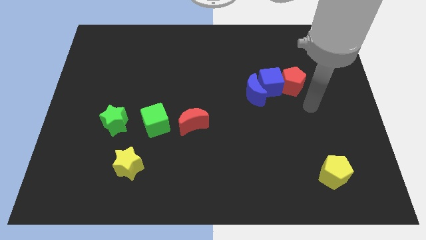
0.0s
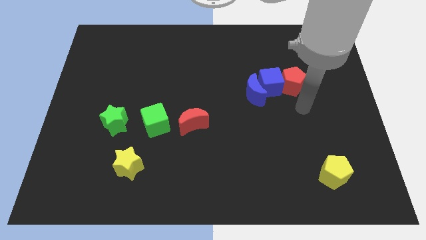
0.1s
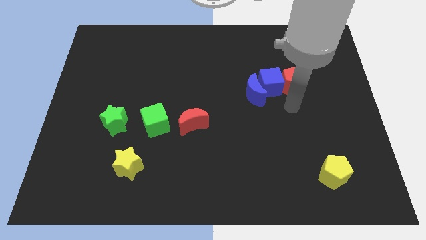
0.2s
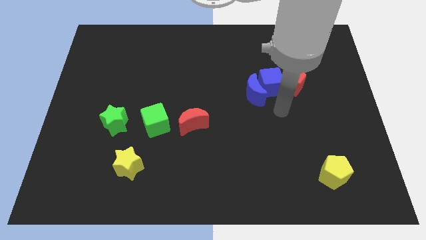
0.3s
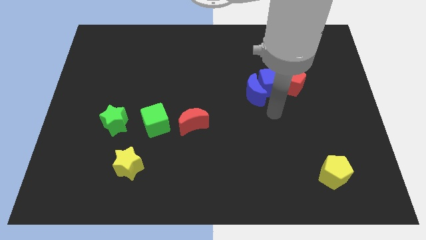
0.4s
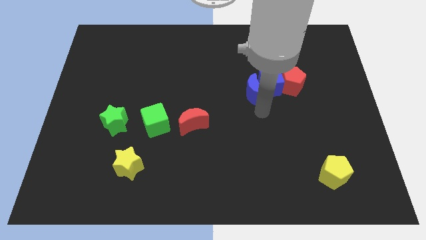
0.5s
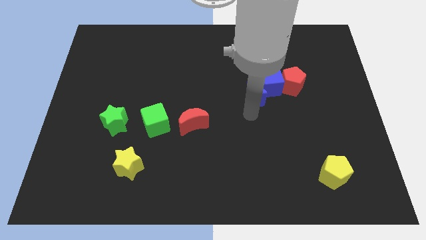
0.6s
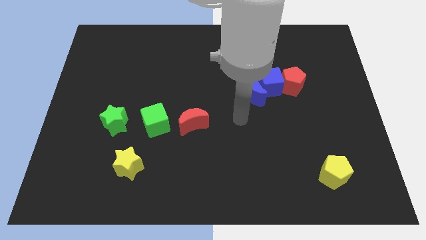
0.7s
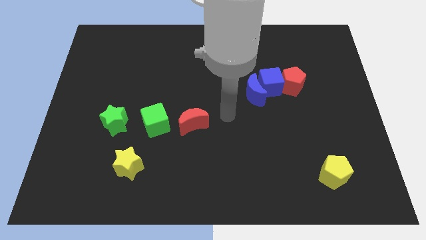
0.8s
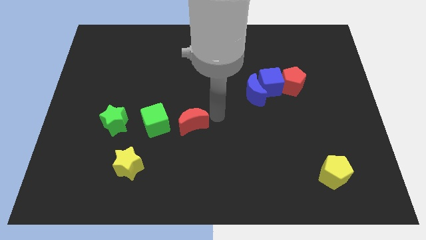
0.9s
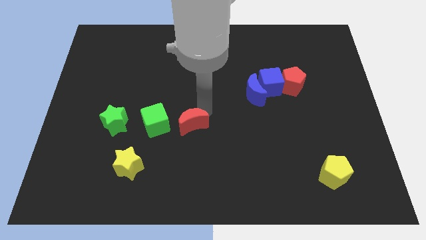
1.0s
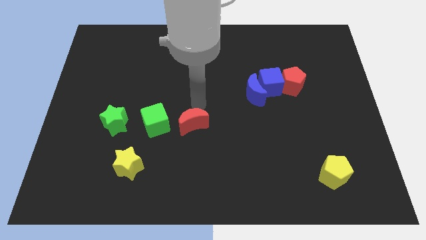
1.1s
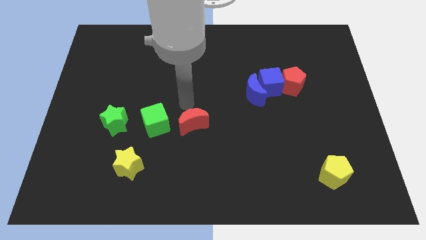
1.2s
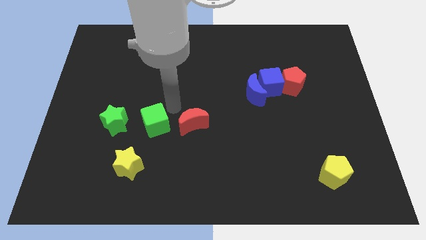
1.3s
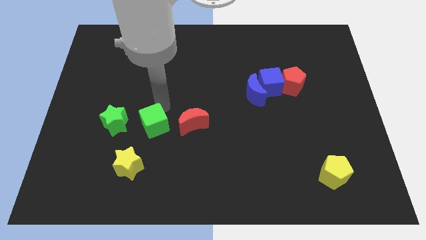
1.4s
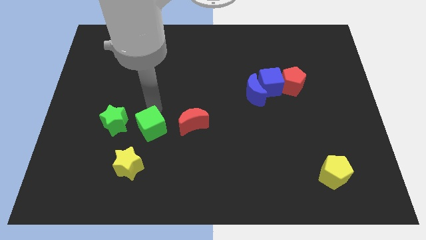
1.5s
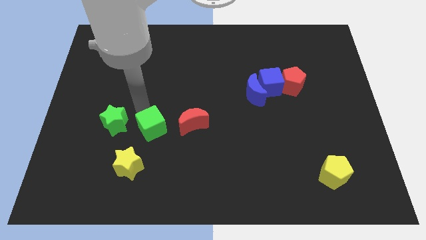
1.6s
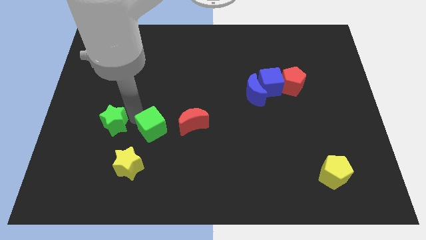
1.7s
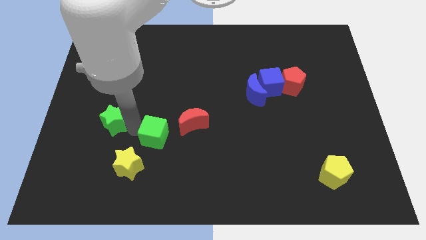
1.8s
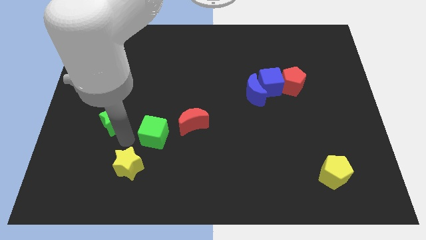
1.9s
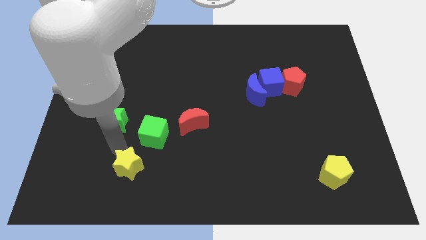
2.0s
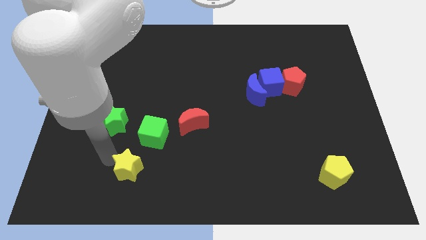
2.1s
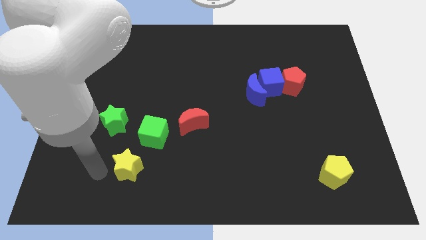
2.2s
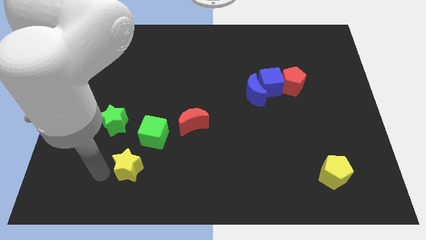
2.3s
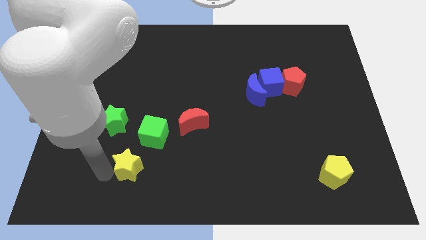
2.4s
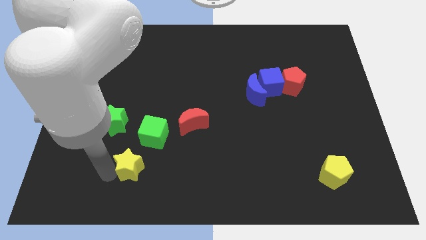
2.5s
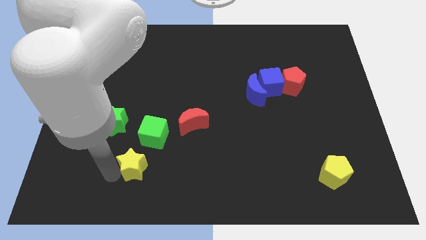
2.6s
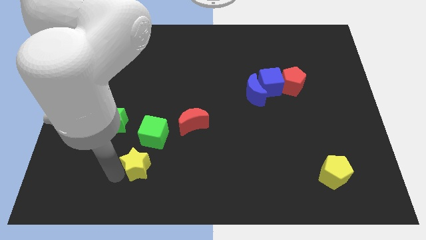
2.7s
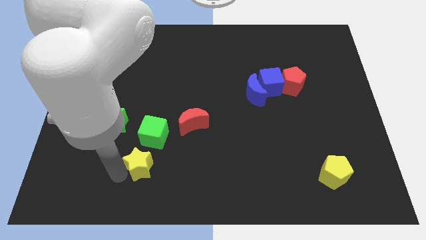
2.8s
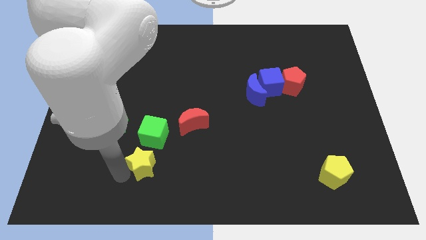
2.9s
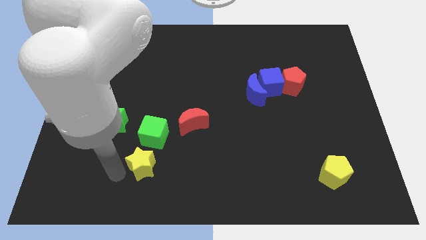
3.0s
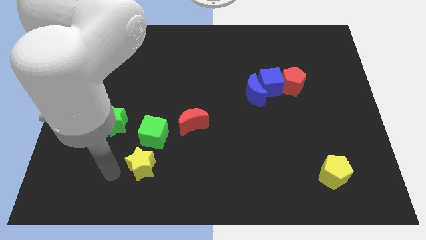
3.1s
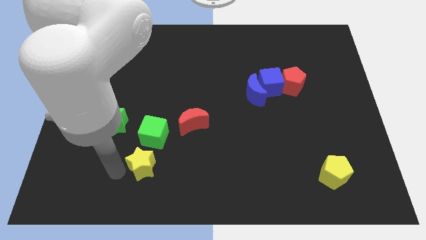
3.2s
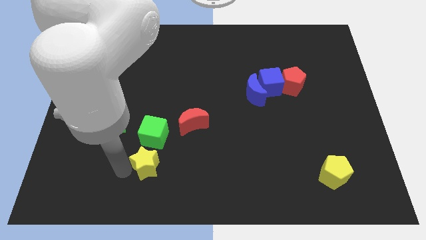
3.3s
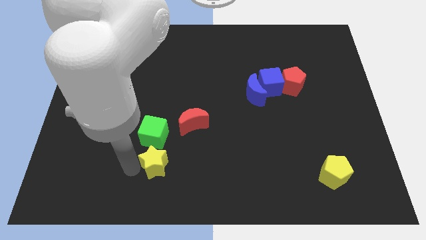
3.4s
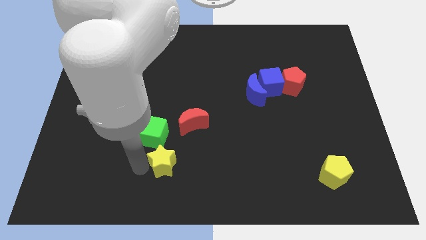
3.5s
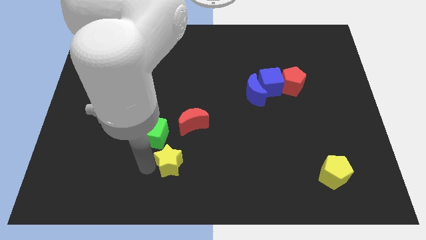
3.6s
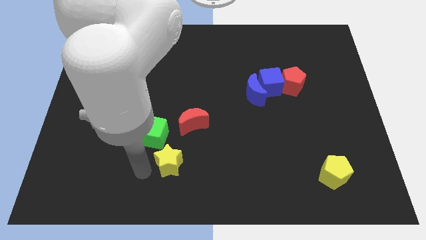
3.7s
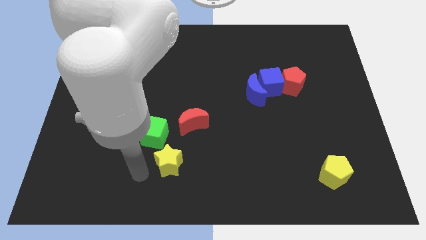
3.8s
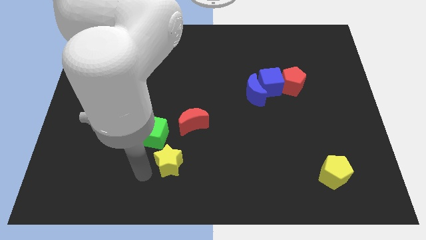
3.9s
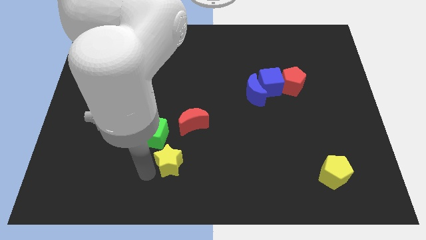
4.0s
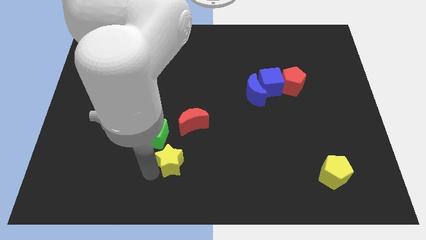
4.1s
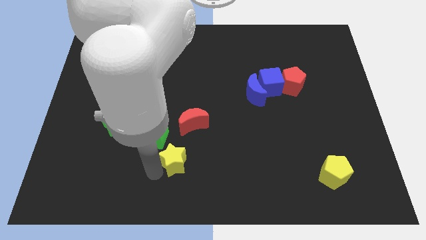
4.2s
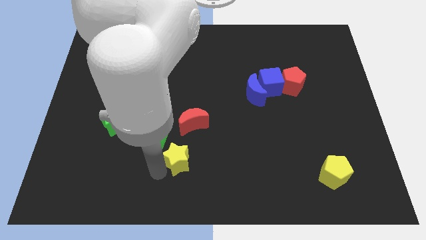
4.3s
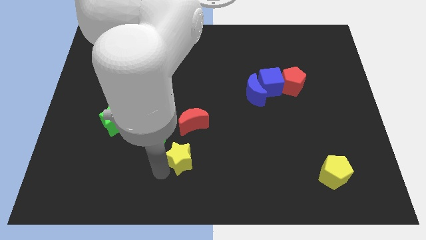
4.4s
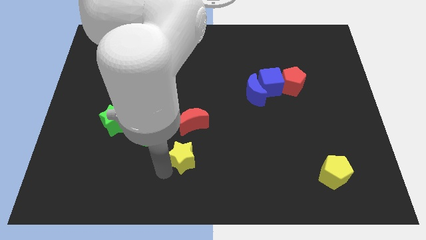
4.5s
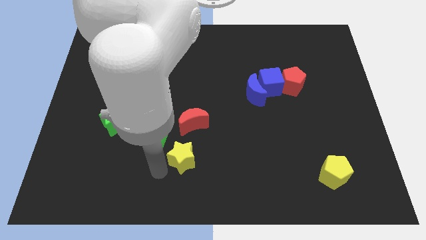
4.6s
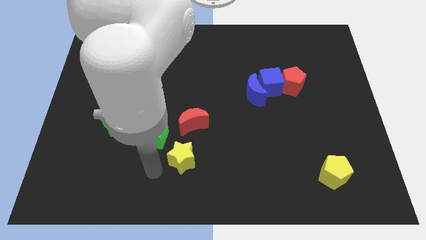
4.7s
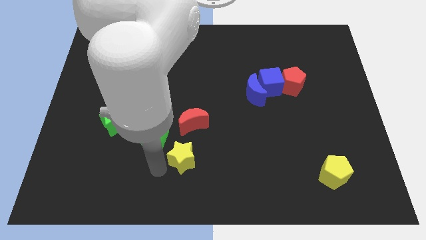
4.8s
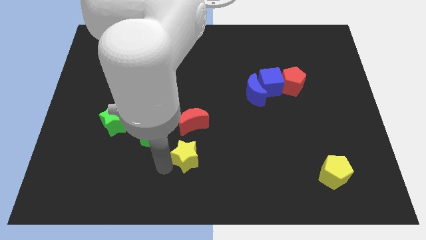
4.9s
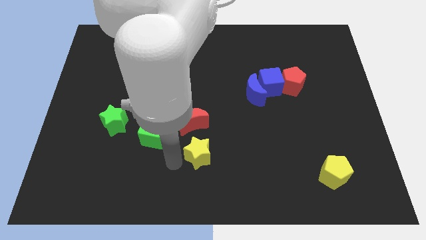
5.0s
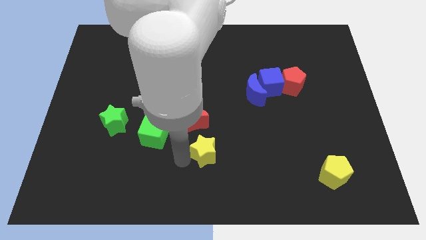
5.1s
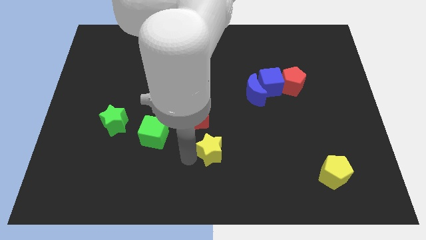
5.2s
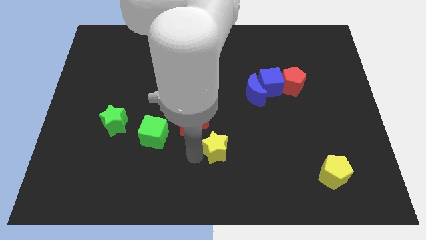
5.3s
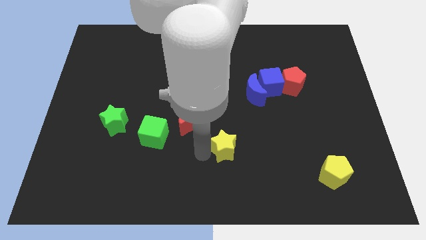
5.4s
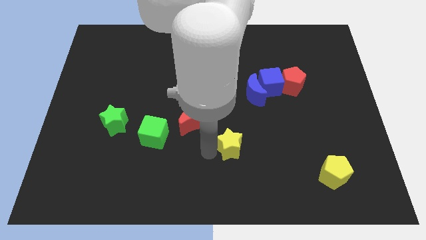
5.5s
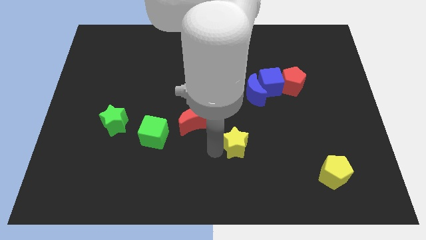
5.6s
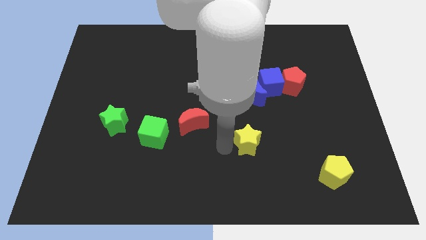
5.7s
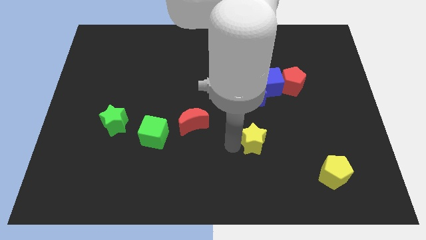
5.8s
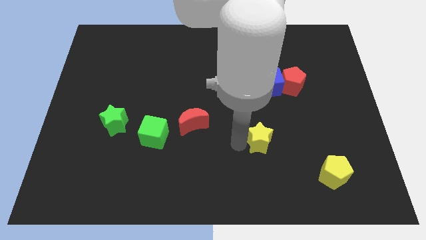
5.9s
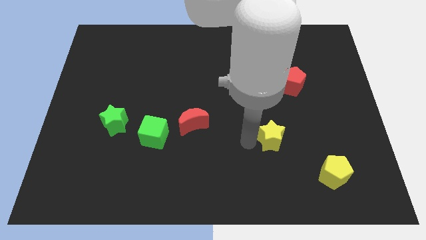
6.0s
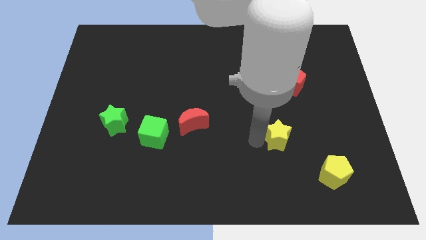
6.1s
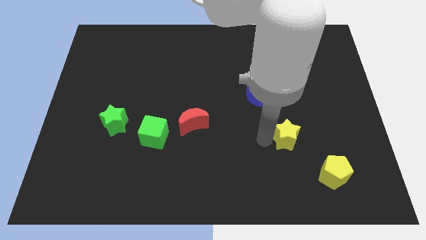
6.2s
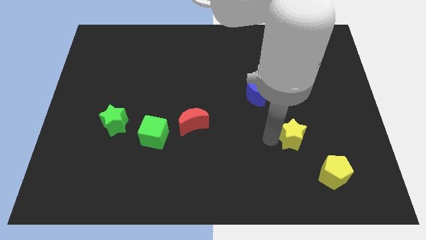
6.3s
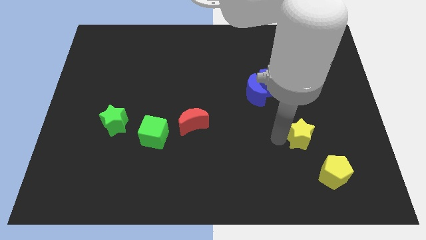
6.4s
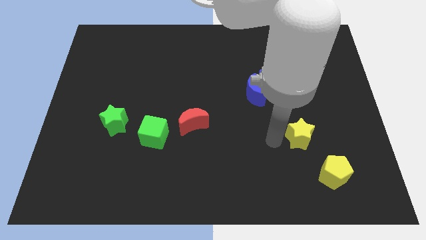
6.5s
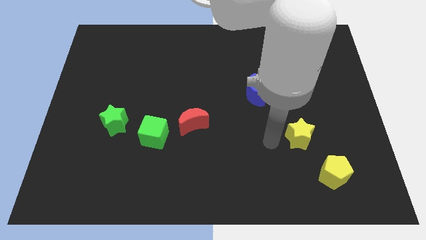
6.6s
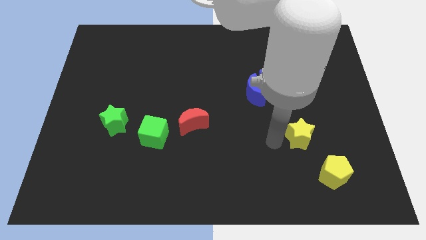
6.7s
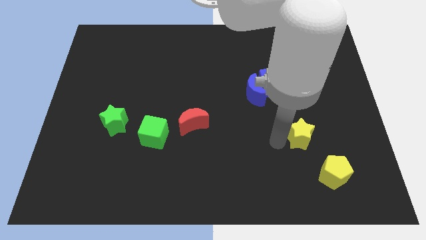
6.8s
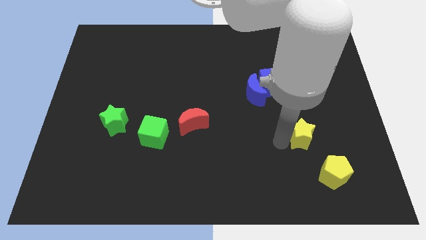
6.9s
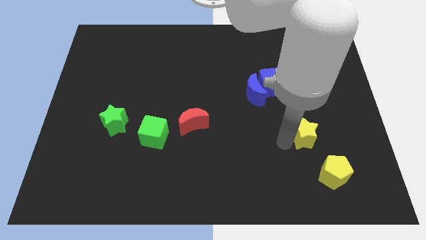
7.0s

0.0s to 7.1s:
put the yellow star to the top of the yellow pentagon
